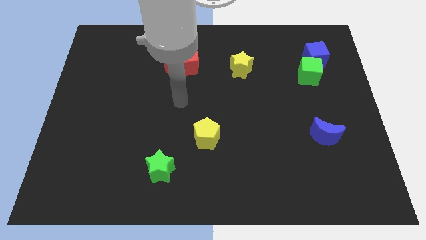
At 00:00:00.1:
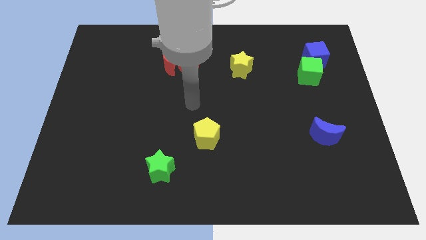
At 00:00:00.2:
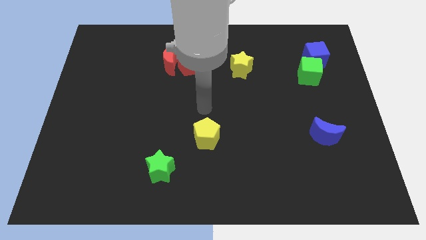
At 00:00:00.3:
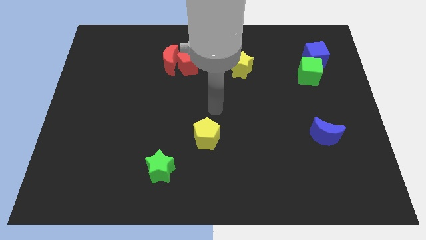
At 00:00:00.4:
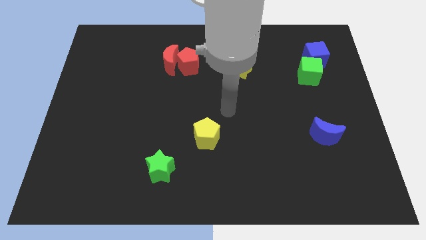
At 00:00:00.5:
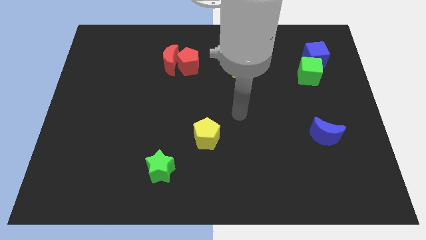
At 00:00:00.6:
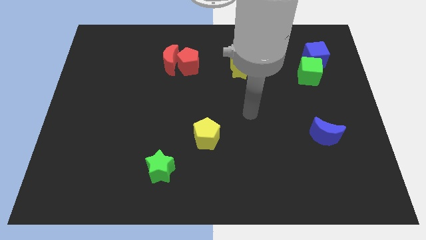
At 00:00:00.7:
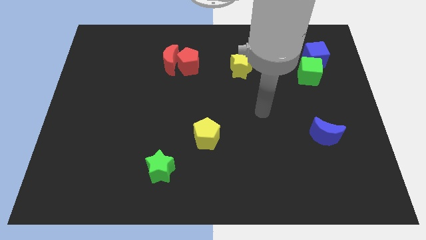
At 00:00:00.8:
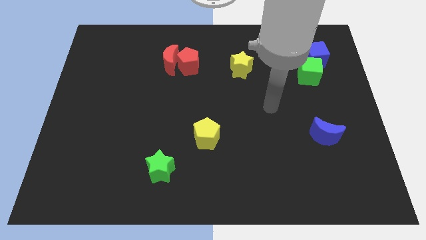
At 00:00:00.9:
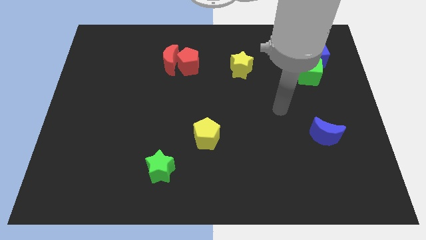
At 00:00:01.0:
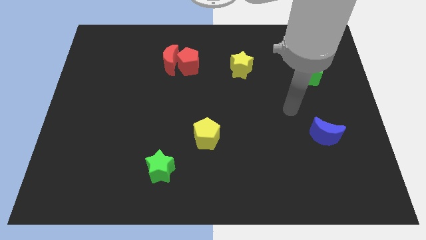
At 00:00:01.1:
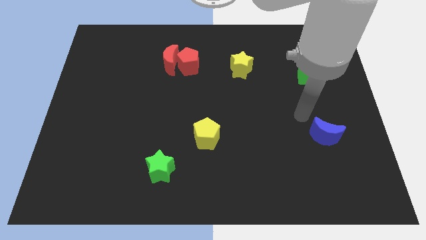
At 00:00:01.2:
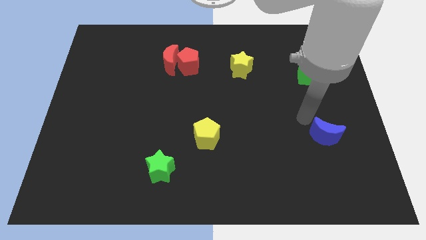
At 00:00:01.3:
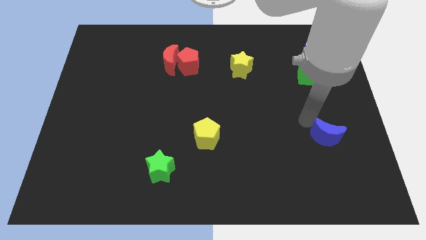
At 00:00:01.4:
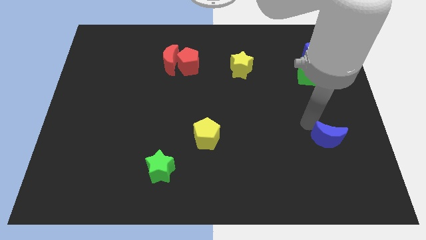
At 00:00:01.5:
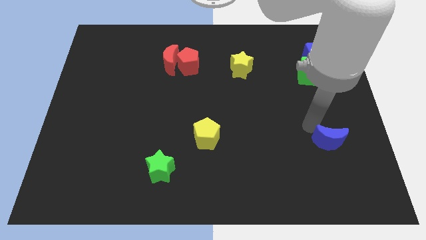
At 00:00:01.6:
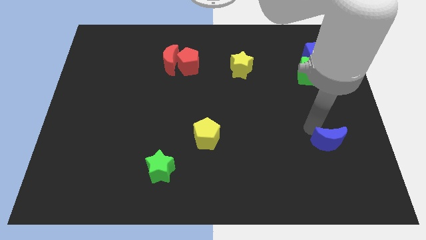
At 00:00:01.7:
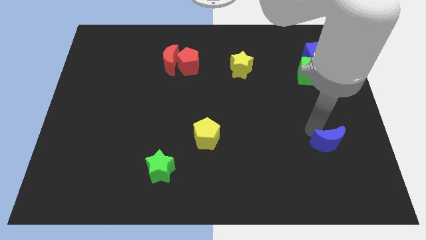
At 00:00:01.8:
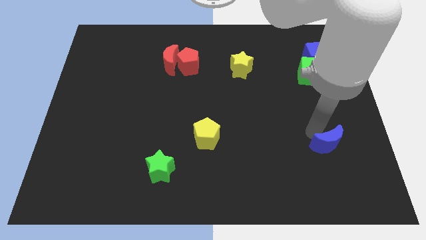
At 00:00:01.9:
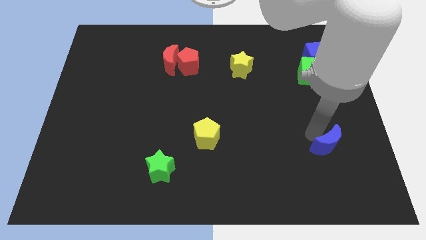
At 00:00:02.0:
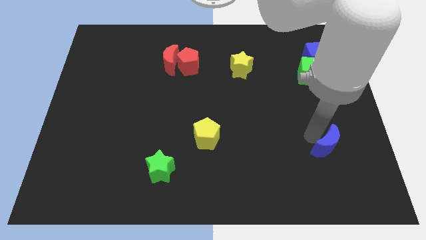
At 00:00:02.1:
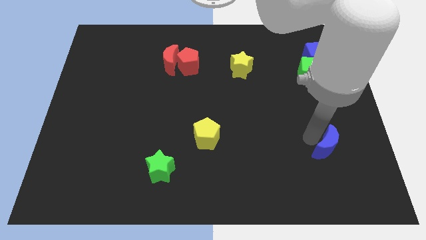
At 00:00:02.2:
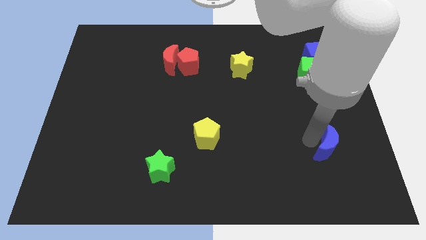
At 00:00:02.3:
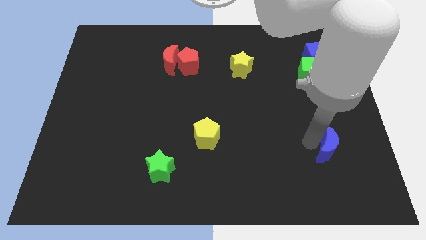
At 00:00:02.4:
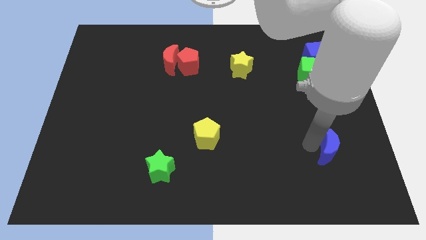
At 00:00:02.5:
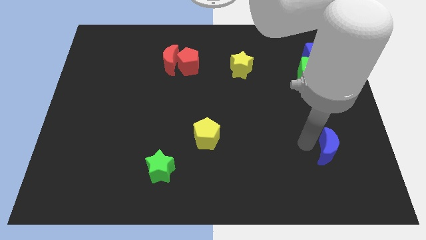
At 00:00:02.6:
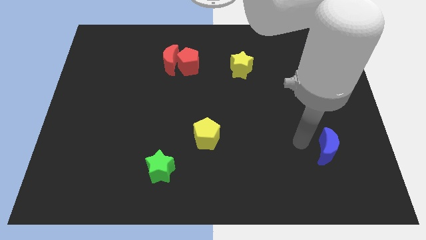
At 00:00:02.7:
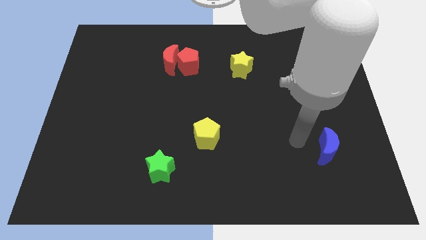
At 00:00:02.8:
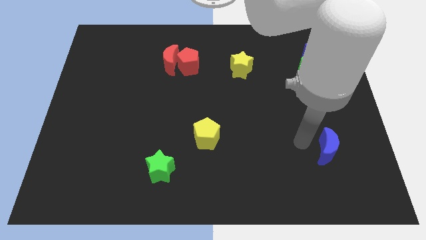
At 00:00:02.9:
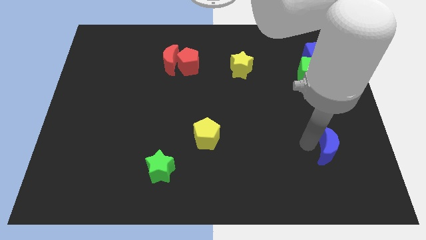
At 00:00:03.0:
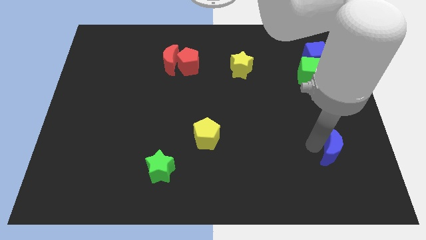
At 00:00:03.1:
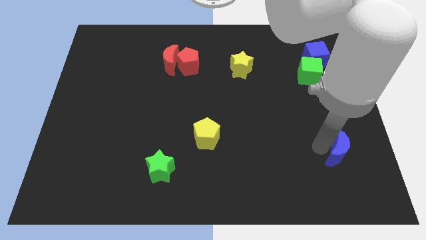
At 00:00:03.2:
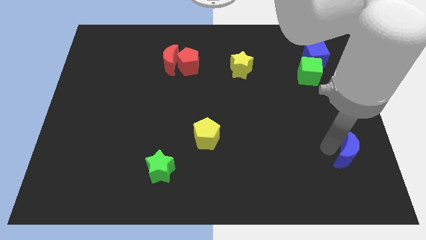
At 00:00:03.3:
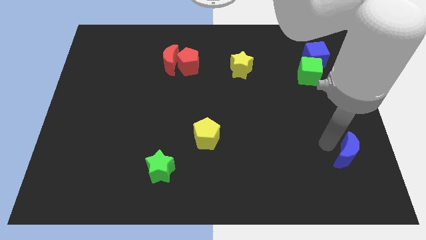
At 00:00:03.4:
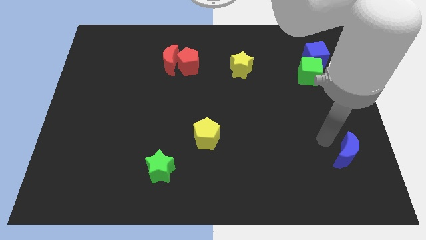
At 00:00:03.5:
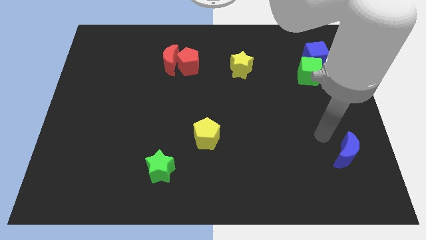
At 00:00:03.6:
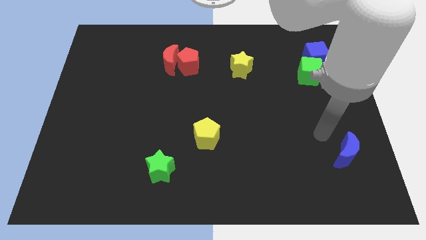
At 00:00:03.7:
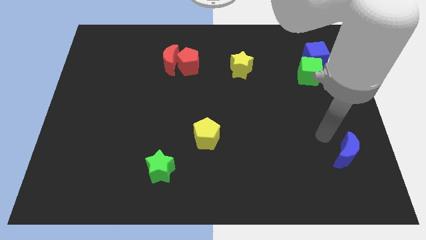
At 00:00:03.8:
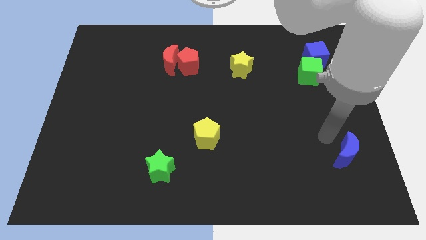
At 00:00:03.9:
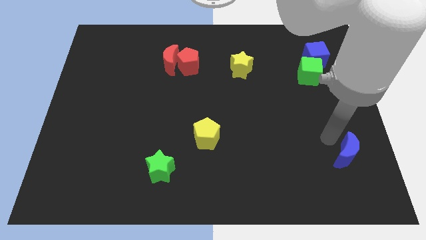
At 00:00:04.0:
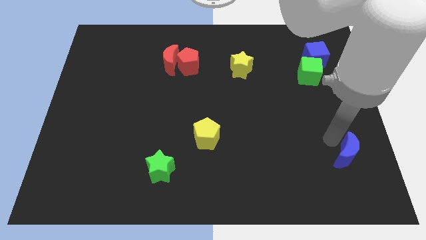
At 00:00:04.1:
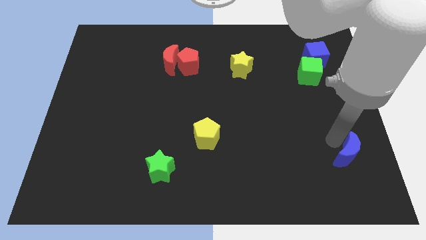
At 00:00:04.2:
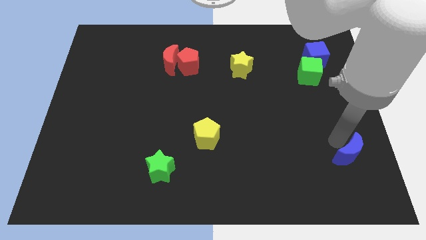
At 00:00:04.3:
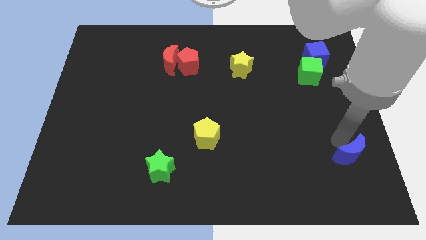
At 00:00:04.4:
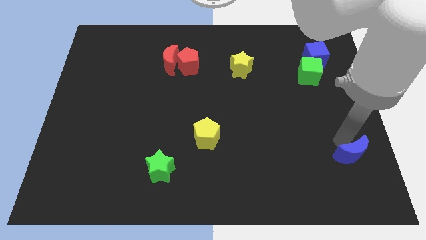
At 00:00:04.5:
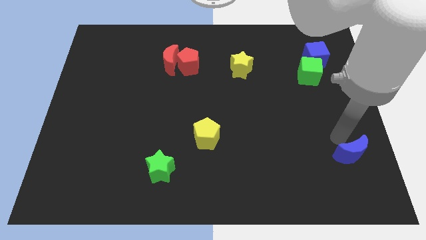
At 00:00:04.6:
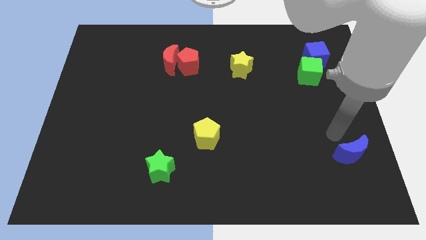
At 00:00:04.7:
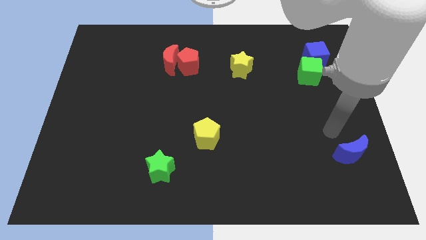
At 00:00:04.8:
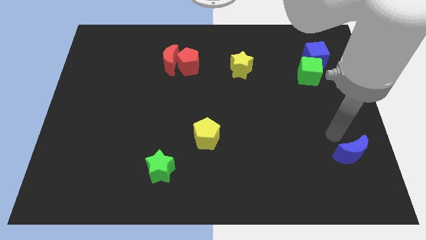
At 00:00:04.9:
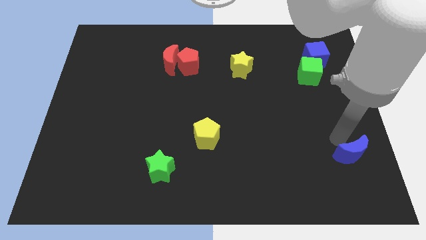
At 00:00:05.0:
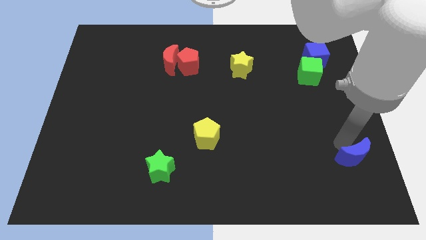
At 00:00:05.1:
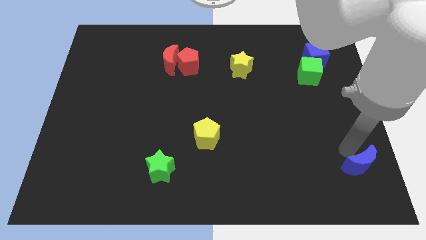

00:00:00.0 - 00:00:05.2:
put the blue moon to the lower right corner

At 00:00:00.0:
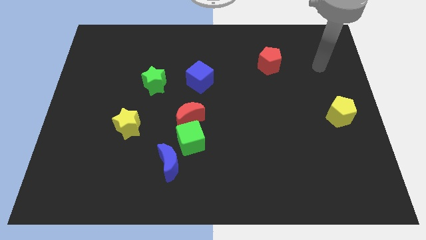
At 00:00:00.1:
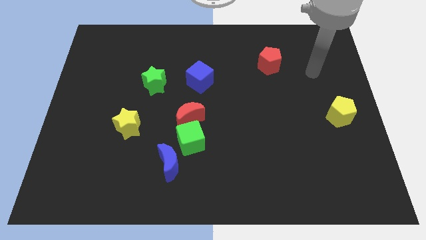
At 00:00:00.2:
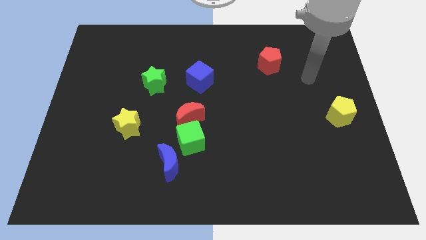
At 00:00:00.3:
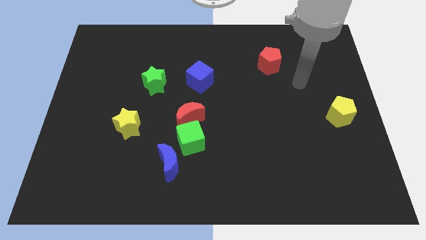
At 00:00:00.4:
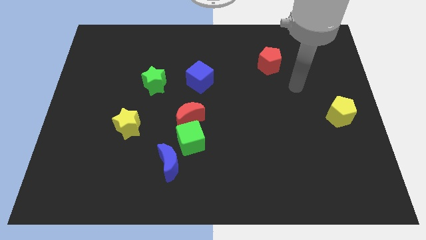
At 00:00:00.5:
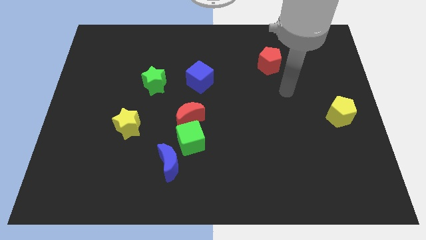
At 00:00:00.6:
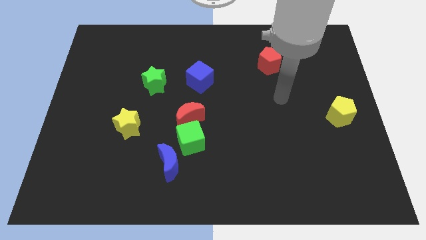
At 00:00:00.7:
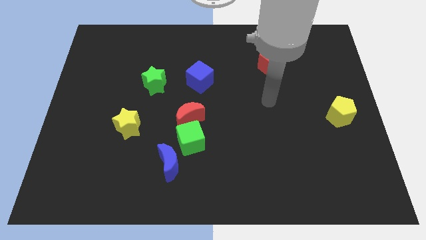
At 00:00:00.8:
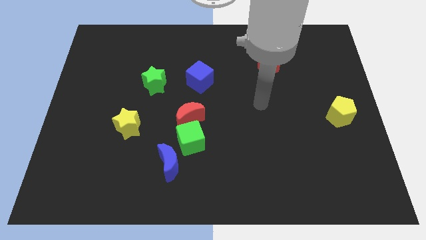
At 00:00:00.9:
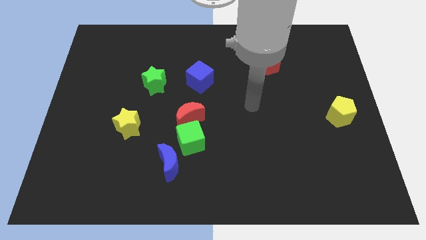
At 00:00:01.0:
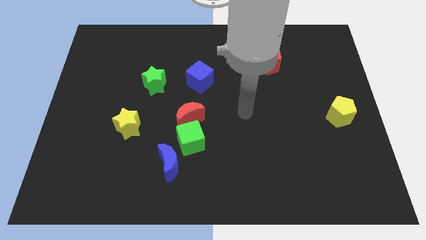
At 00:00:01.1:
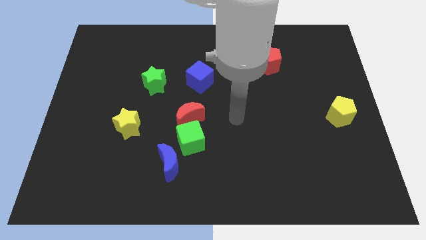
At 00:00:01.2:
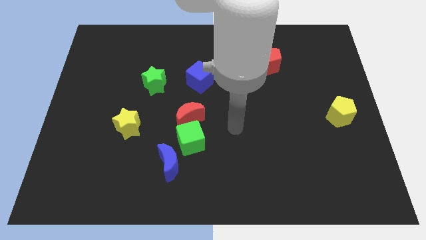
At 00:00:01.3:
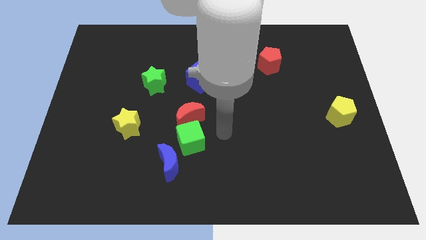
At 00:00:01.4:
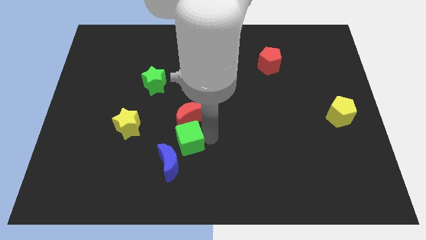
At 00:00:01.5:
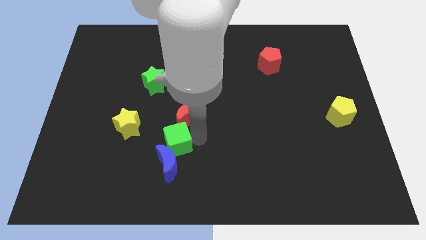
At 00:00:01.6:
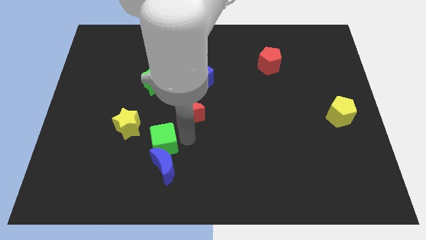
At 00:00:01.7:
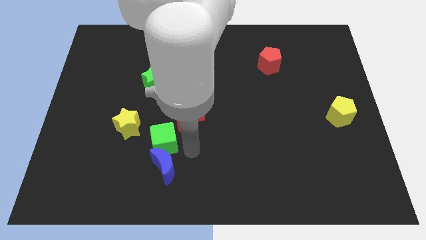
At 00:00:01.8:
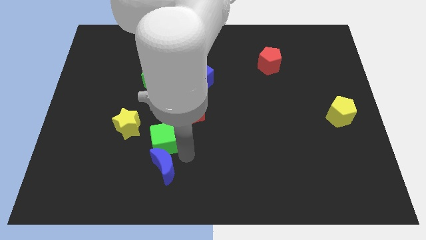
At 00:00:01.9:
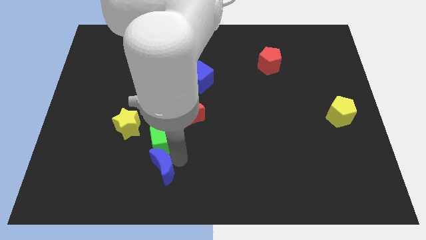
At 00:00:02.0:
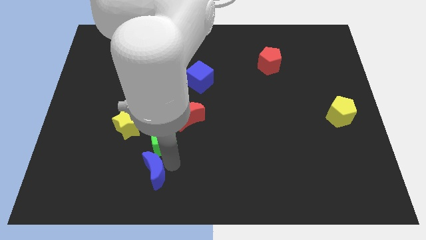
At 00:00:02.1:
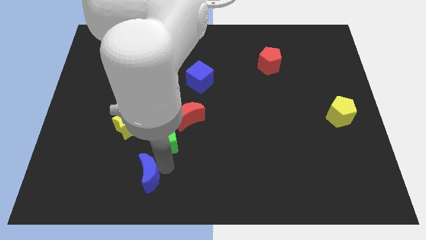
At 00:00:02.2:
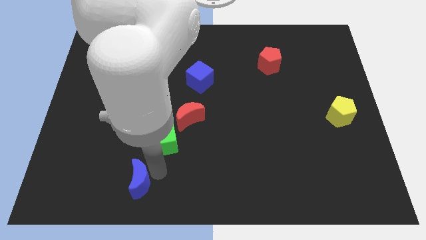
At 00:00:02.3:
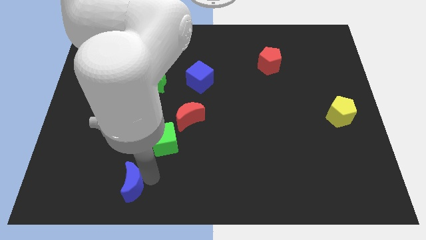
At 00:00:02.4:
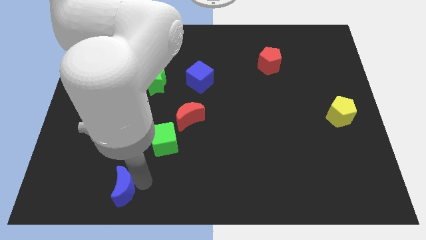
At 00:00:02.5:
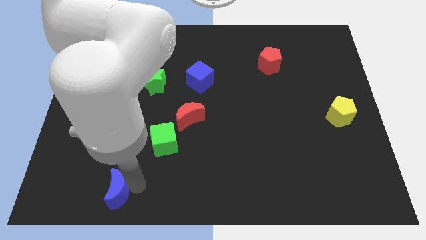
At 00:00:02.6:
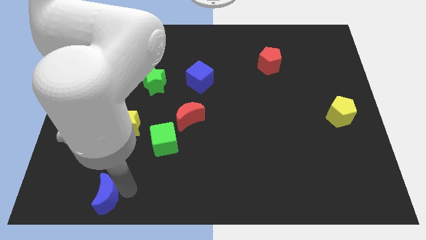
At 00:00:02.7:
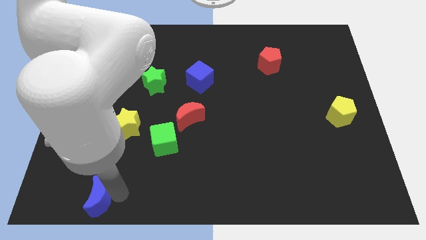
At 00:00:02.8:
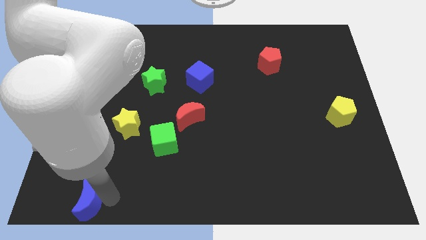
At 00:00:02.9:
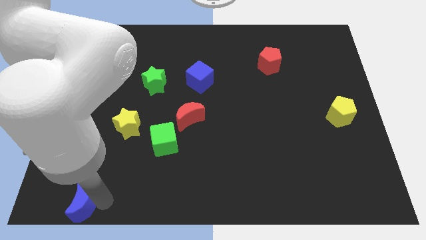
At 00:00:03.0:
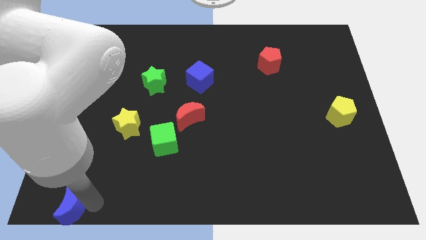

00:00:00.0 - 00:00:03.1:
put the blue moon to the bottom left
